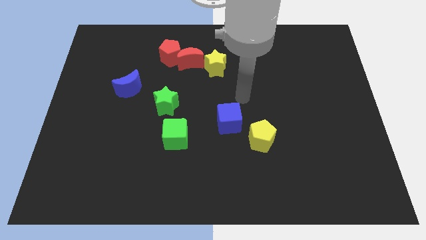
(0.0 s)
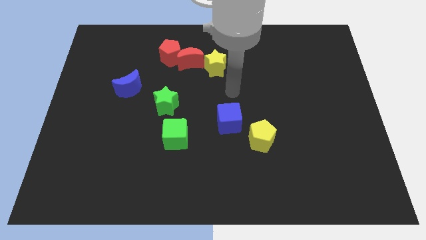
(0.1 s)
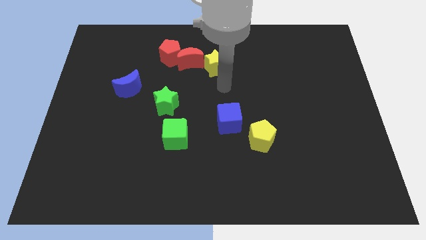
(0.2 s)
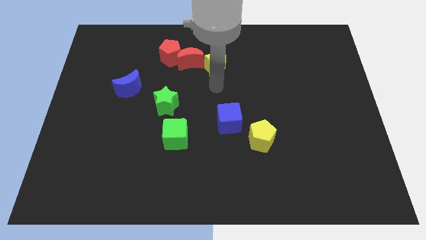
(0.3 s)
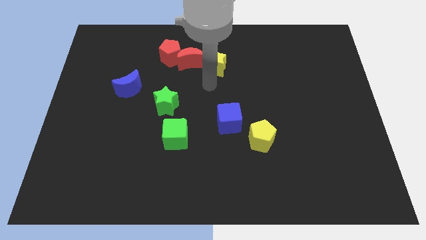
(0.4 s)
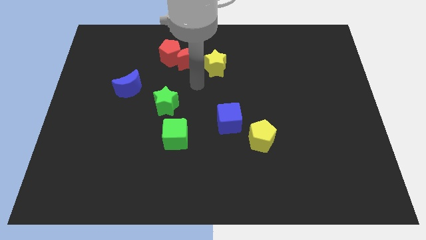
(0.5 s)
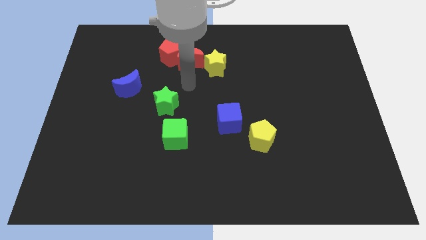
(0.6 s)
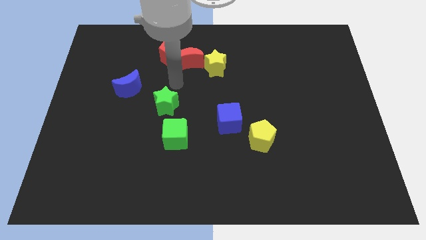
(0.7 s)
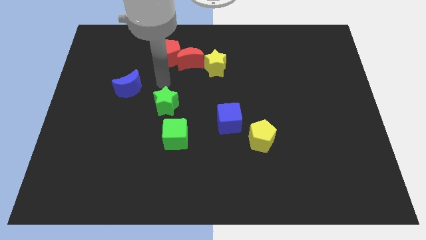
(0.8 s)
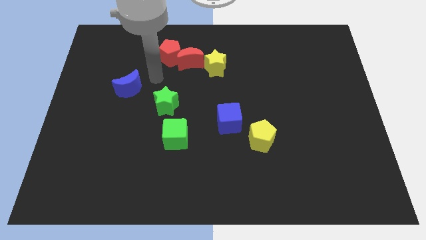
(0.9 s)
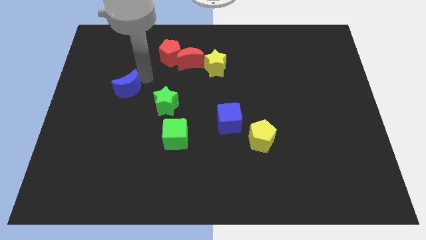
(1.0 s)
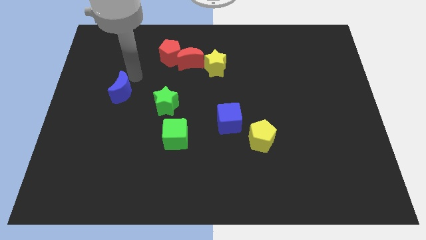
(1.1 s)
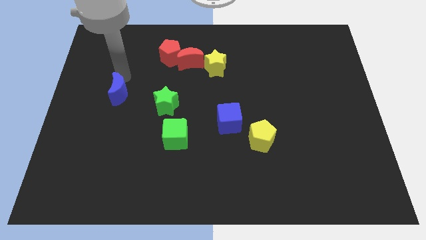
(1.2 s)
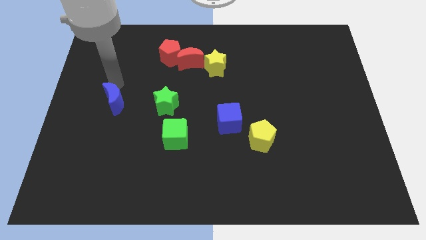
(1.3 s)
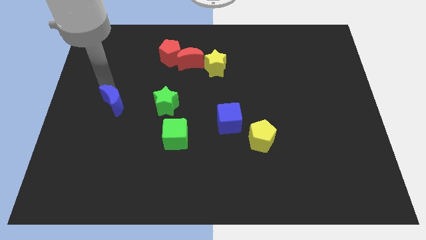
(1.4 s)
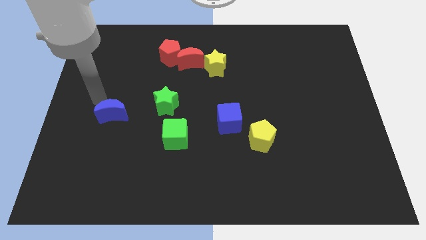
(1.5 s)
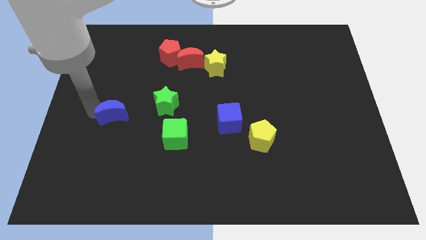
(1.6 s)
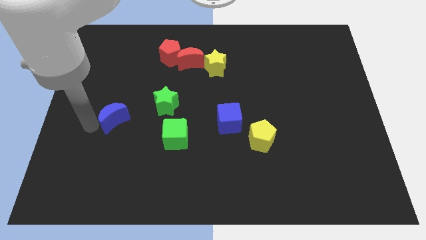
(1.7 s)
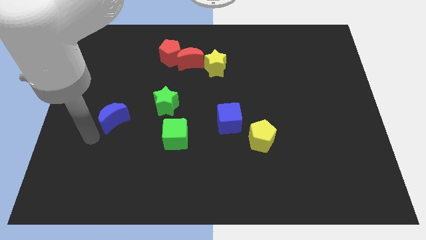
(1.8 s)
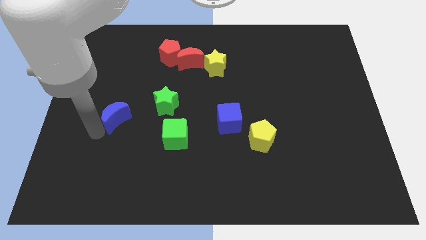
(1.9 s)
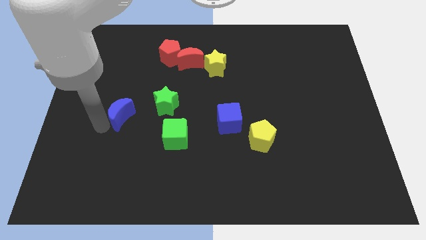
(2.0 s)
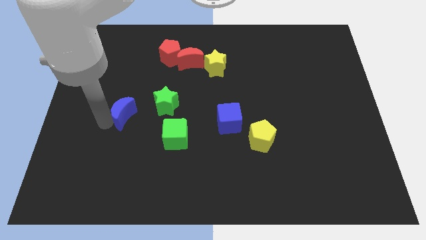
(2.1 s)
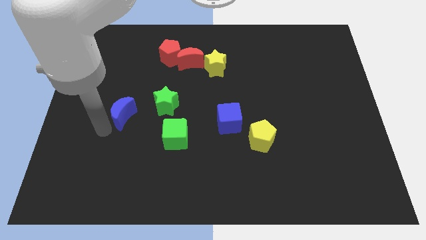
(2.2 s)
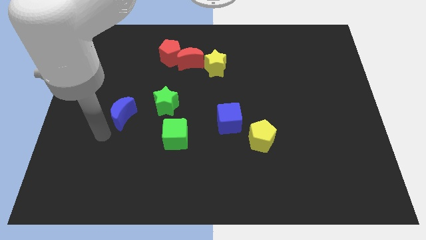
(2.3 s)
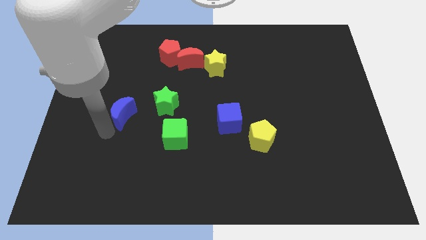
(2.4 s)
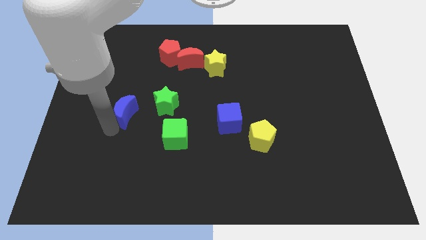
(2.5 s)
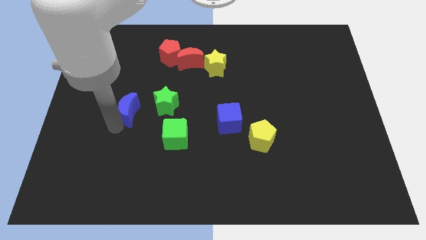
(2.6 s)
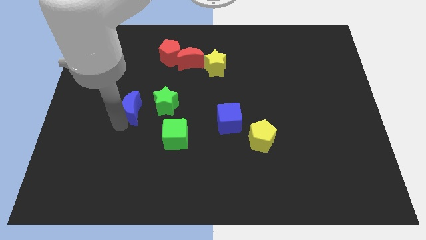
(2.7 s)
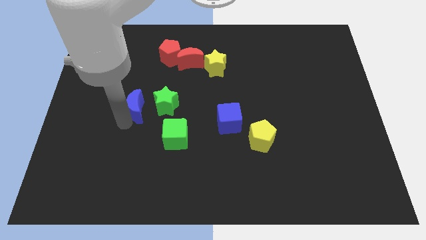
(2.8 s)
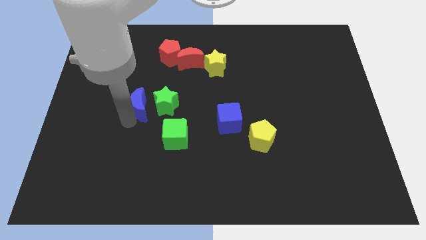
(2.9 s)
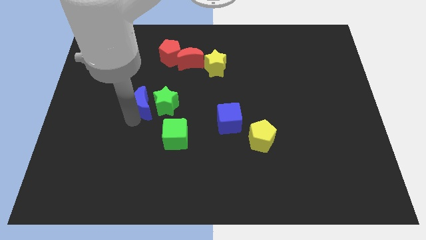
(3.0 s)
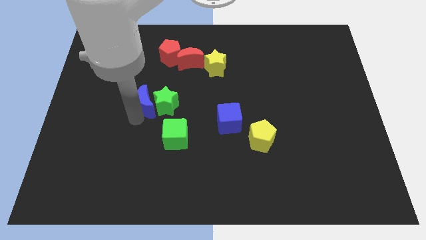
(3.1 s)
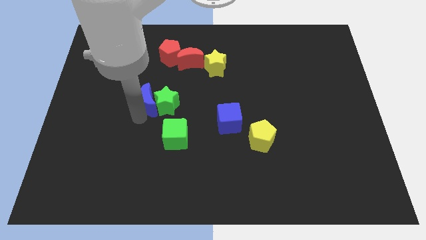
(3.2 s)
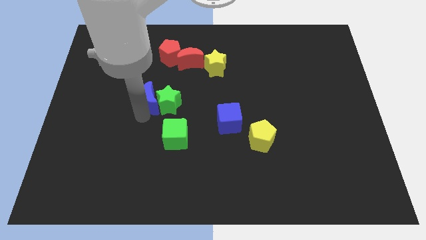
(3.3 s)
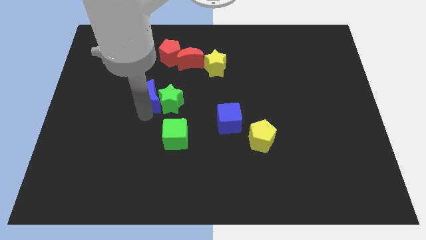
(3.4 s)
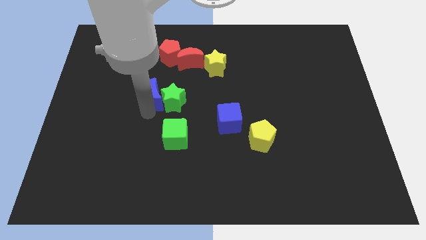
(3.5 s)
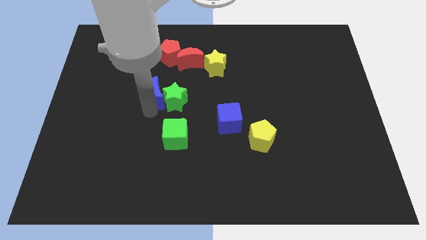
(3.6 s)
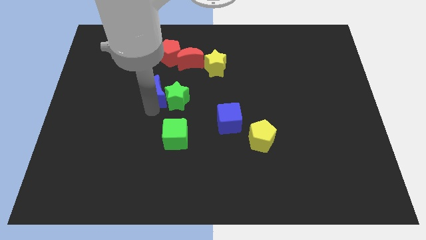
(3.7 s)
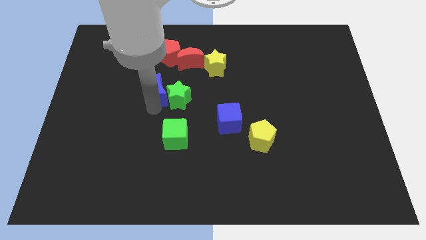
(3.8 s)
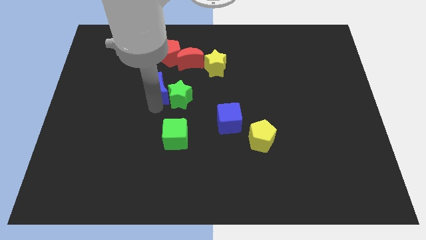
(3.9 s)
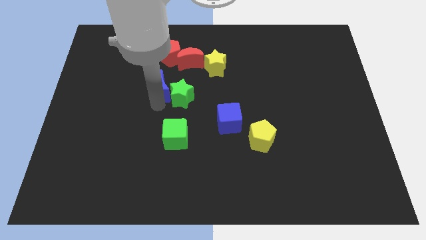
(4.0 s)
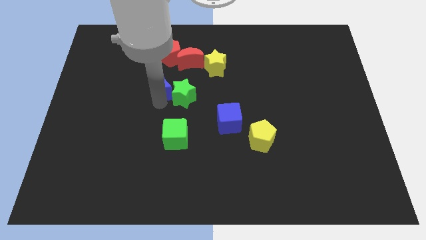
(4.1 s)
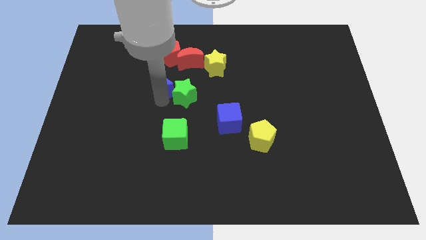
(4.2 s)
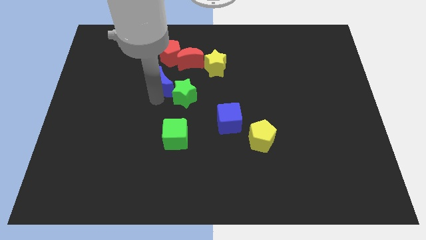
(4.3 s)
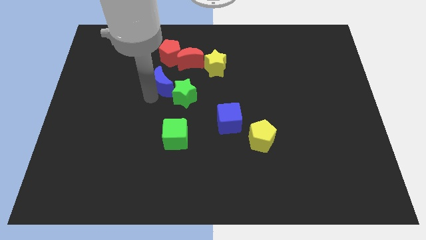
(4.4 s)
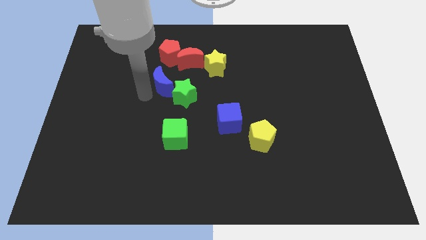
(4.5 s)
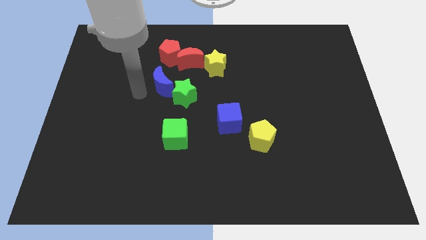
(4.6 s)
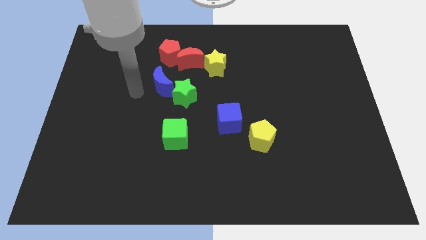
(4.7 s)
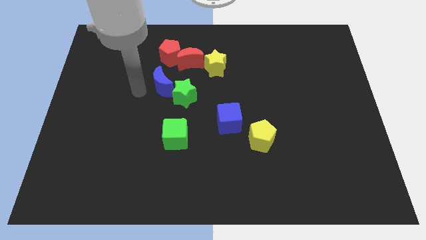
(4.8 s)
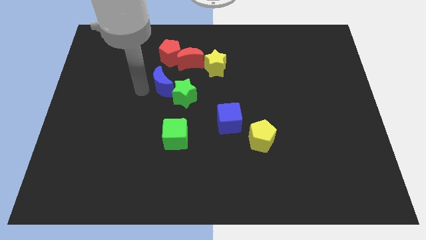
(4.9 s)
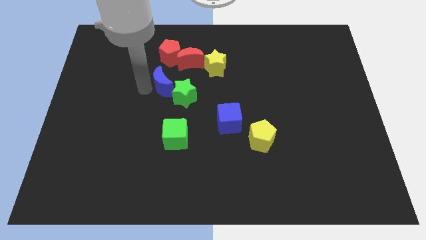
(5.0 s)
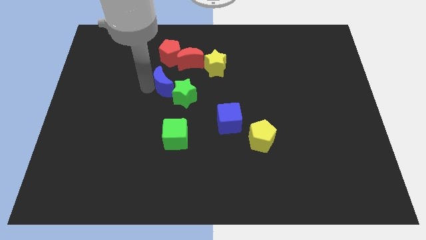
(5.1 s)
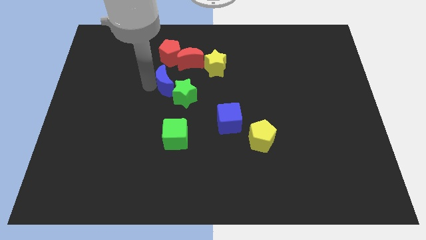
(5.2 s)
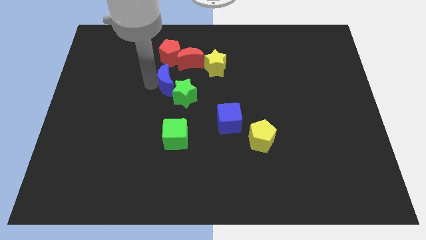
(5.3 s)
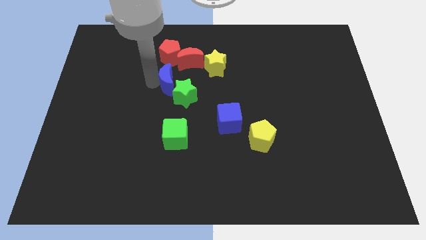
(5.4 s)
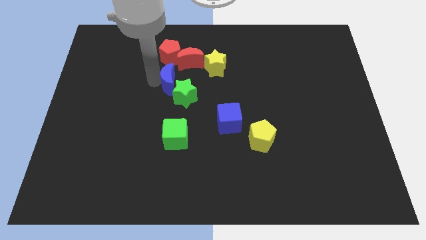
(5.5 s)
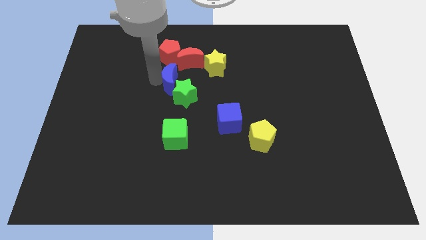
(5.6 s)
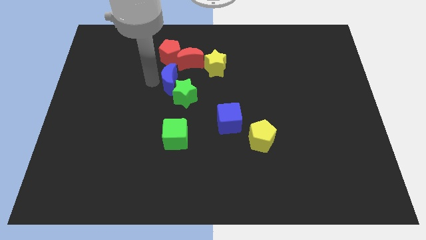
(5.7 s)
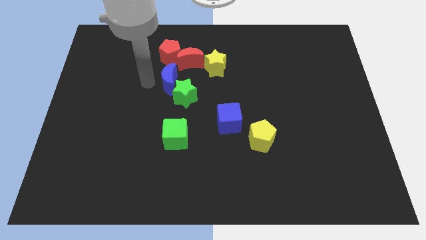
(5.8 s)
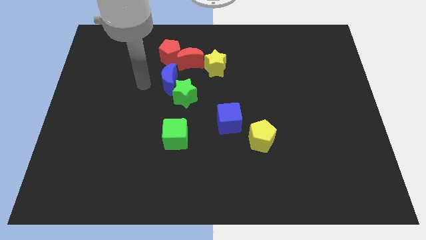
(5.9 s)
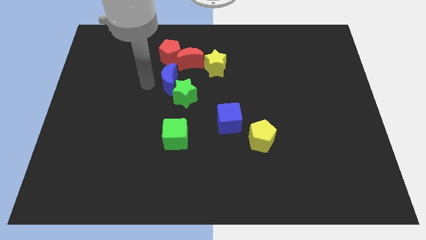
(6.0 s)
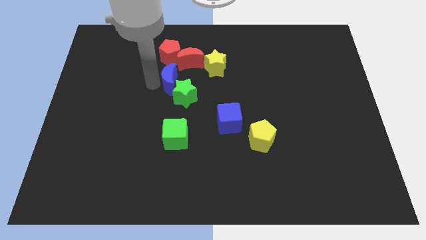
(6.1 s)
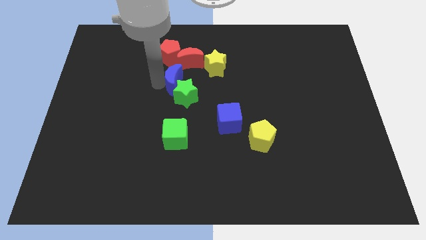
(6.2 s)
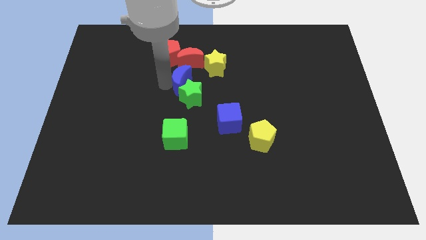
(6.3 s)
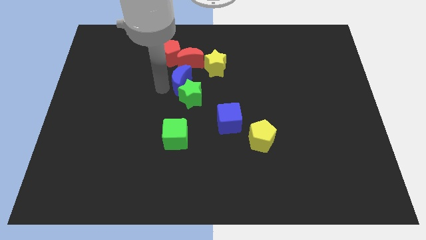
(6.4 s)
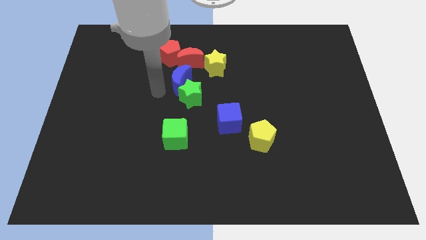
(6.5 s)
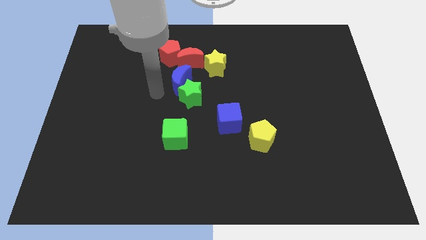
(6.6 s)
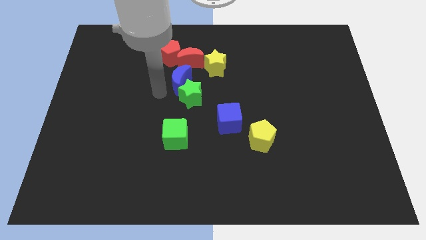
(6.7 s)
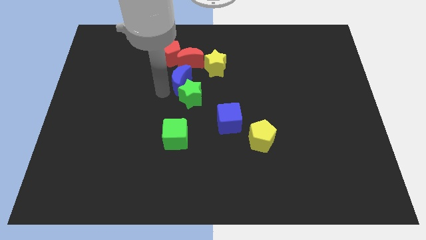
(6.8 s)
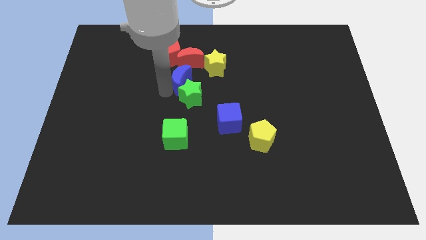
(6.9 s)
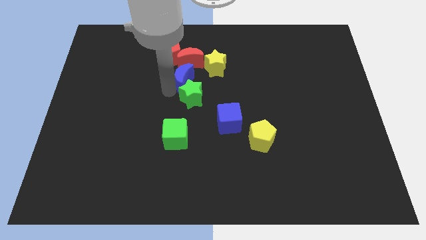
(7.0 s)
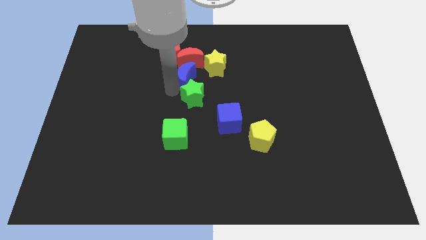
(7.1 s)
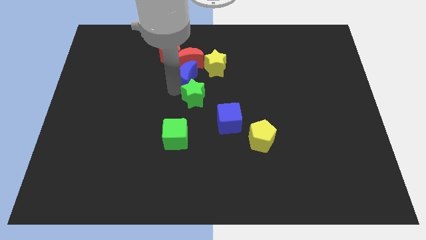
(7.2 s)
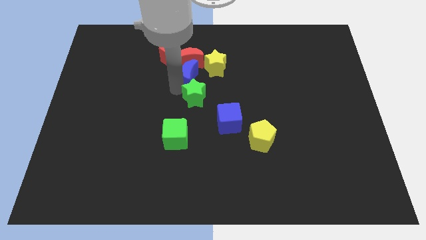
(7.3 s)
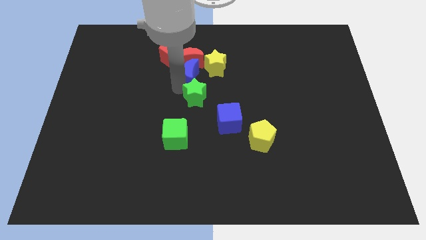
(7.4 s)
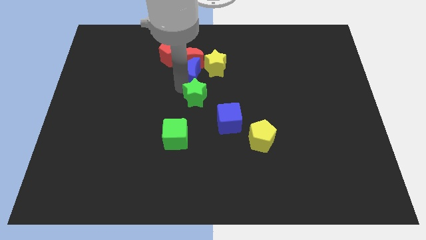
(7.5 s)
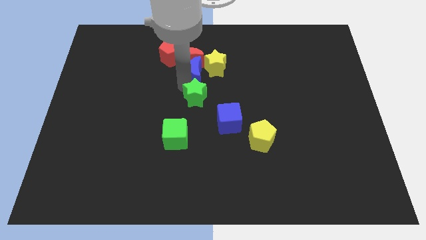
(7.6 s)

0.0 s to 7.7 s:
push the blue moon towards the yellow star

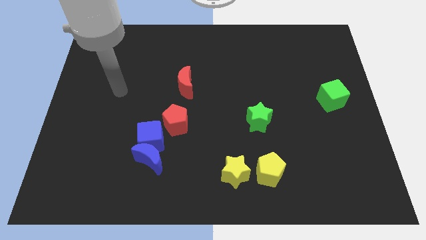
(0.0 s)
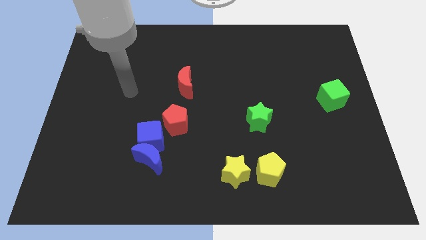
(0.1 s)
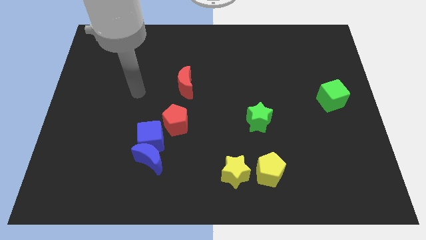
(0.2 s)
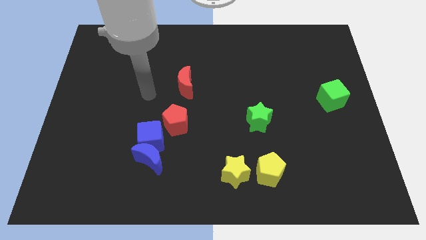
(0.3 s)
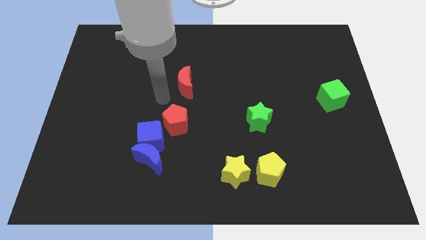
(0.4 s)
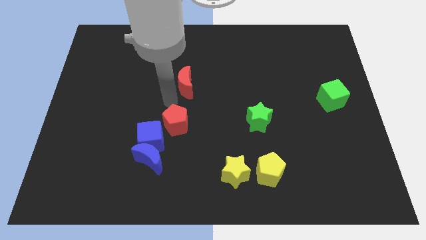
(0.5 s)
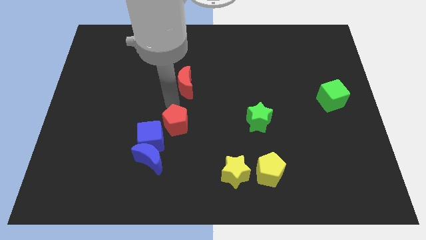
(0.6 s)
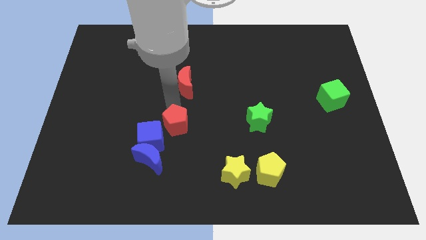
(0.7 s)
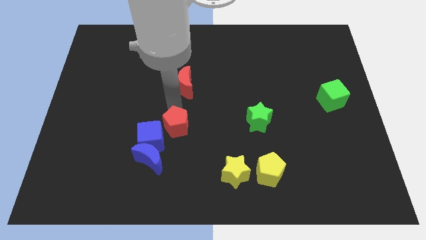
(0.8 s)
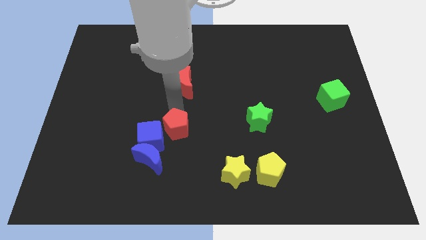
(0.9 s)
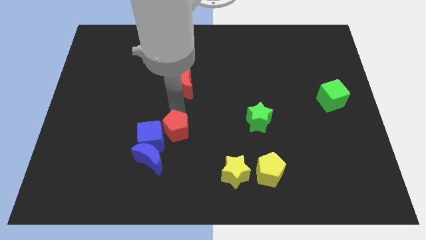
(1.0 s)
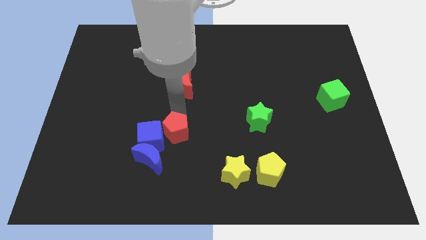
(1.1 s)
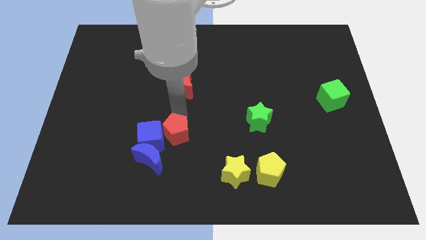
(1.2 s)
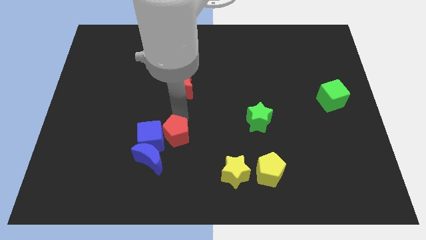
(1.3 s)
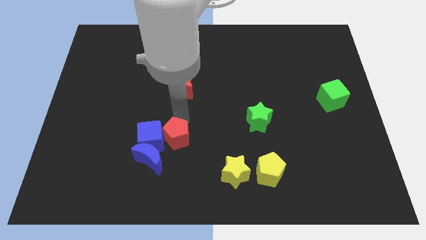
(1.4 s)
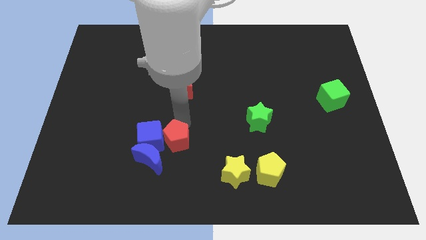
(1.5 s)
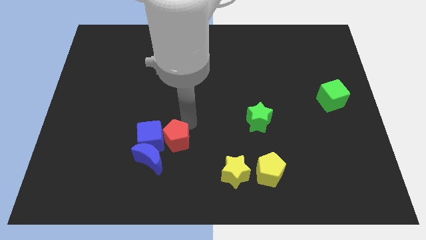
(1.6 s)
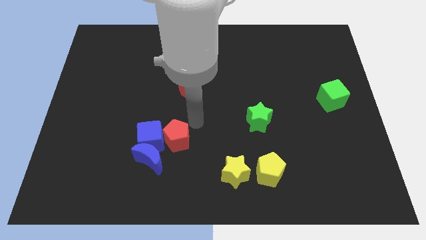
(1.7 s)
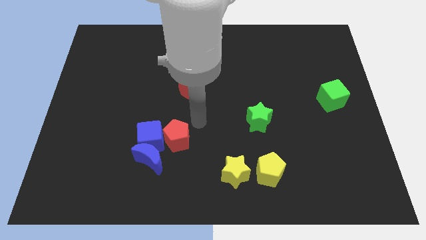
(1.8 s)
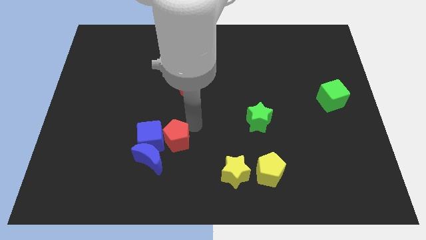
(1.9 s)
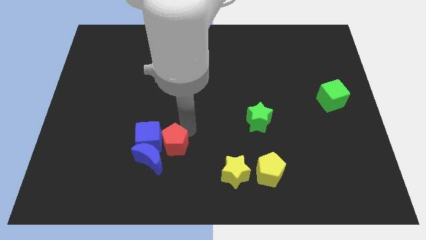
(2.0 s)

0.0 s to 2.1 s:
move the red pentagon close to the blue moon
